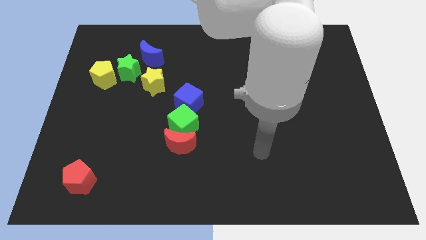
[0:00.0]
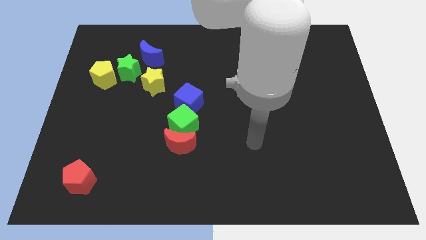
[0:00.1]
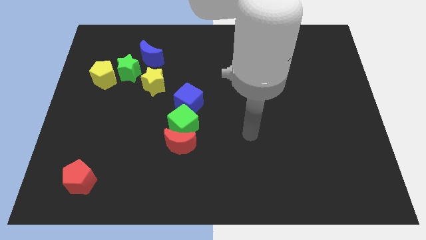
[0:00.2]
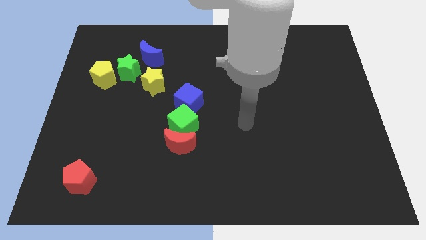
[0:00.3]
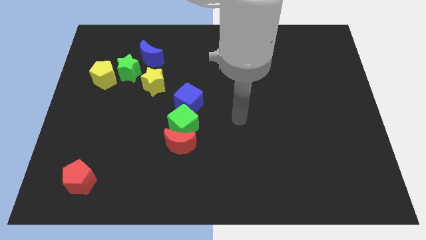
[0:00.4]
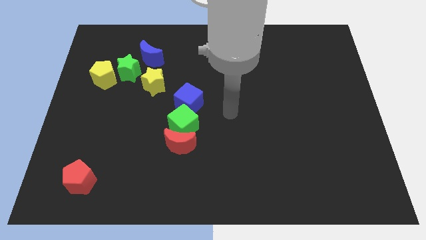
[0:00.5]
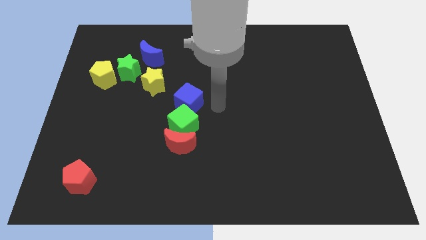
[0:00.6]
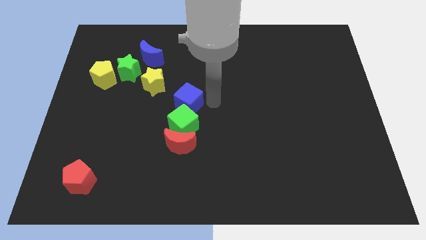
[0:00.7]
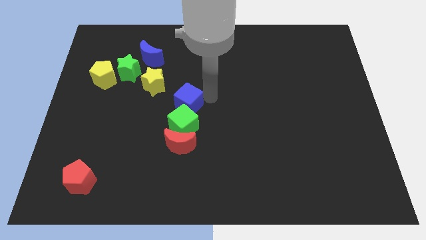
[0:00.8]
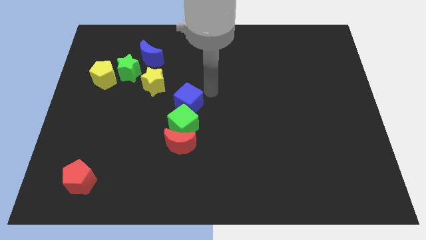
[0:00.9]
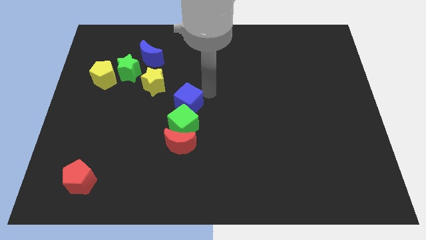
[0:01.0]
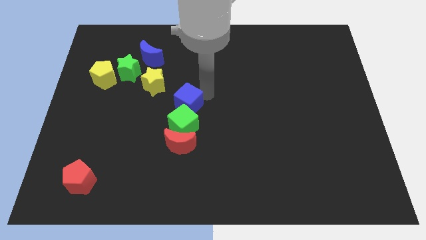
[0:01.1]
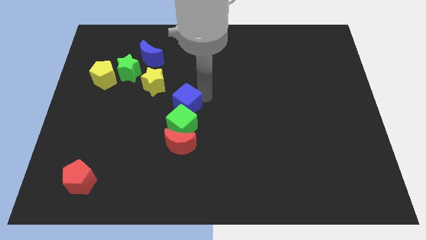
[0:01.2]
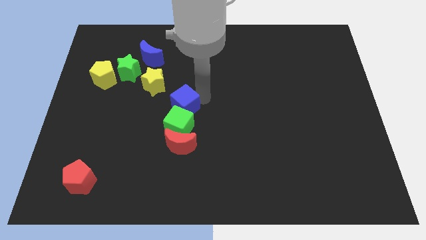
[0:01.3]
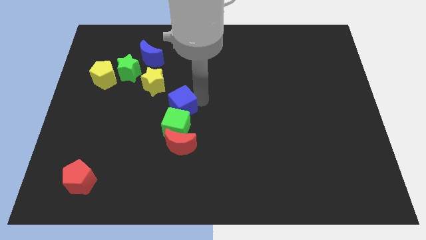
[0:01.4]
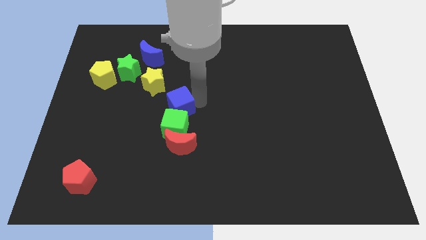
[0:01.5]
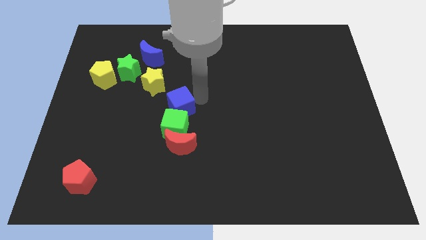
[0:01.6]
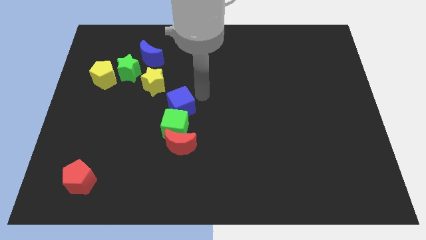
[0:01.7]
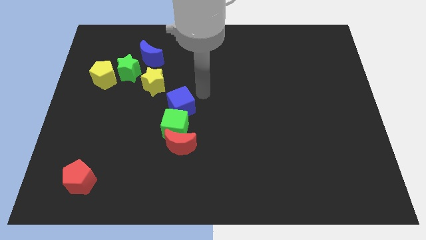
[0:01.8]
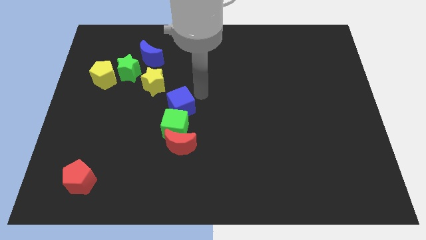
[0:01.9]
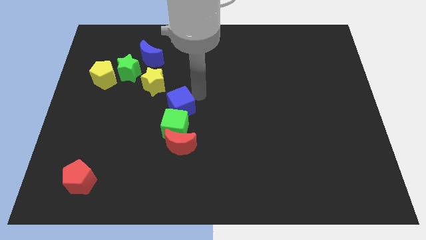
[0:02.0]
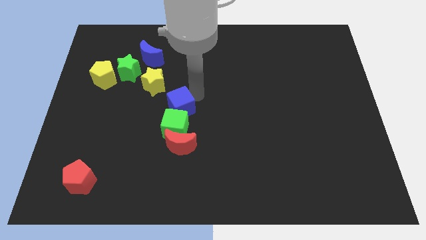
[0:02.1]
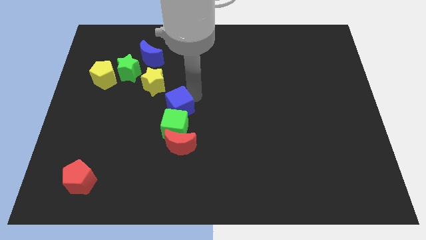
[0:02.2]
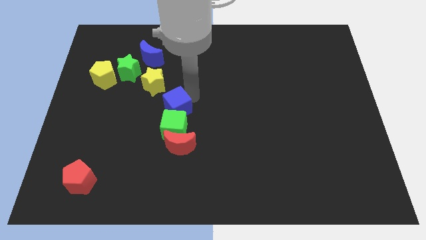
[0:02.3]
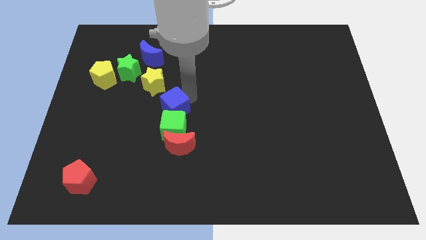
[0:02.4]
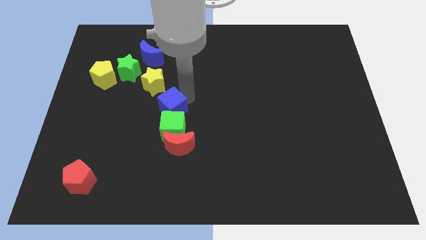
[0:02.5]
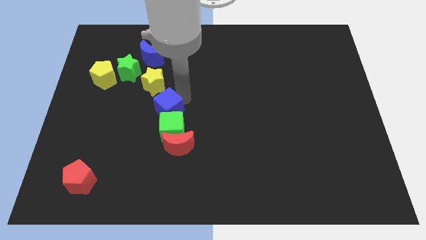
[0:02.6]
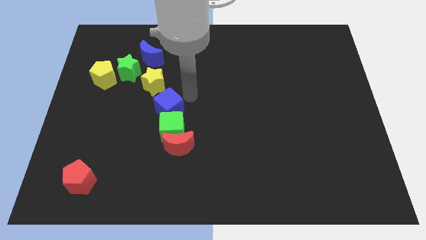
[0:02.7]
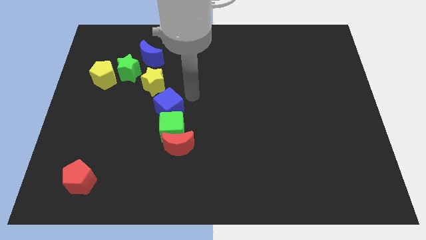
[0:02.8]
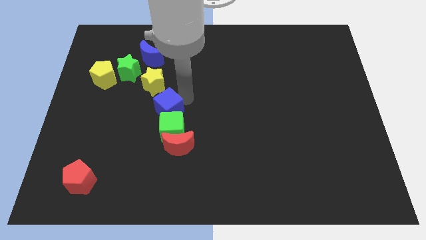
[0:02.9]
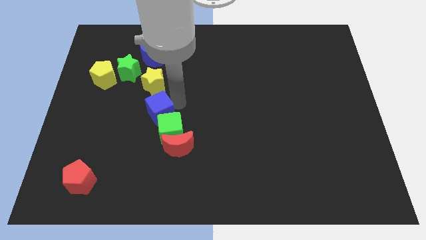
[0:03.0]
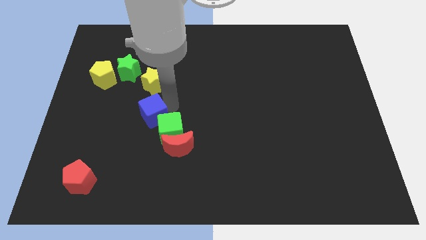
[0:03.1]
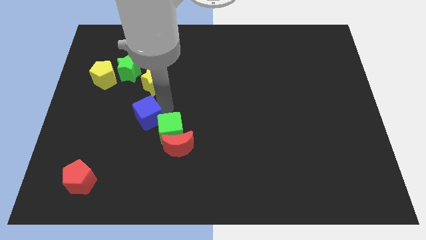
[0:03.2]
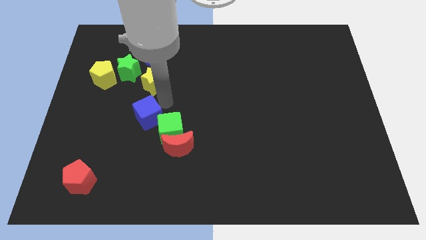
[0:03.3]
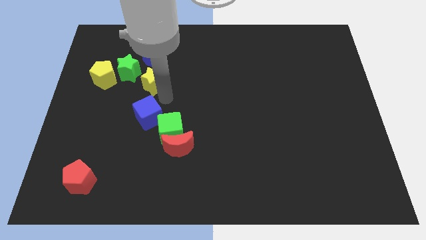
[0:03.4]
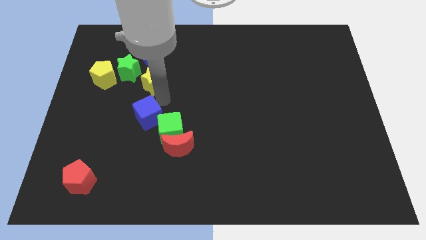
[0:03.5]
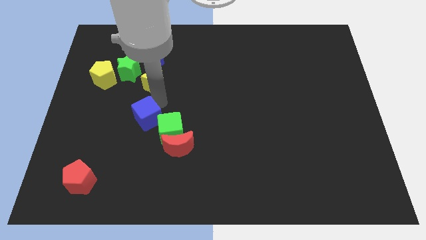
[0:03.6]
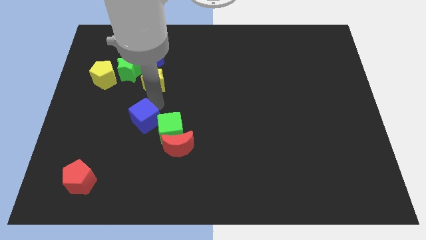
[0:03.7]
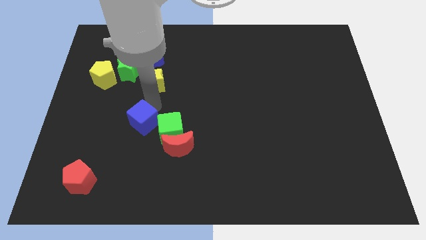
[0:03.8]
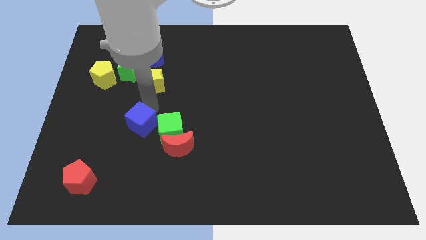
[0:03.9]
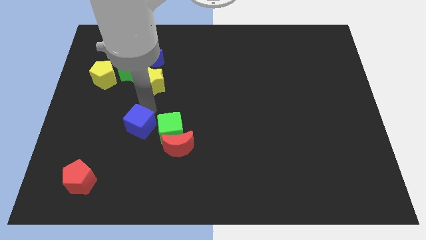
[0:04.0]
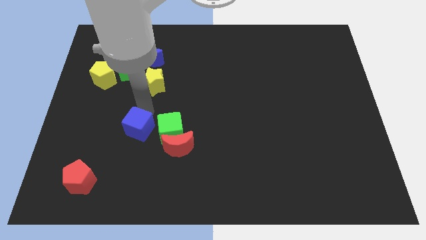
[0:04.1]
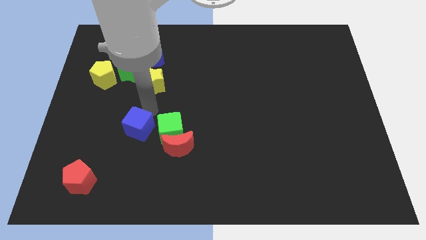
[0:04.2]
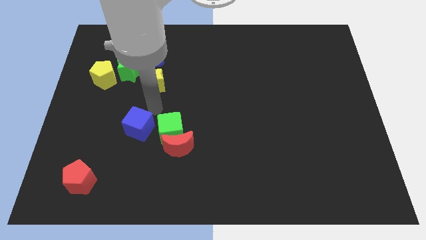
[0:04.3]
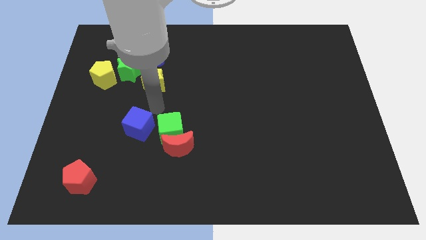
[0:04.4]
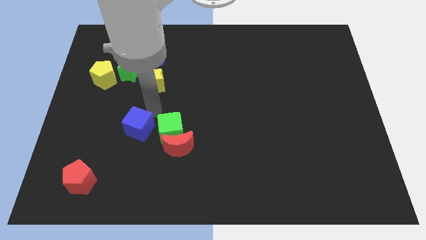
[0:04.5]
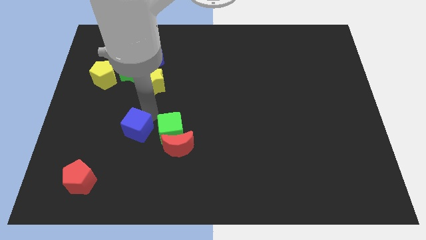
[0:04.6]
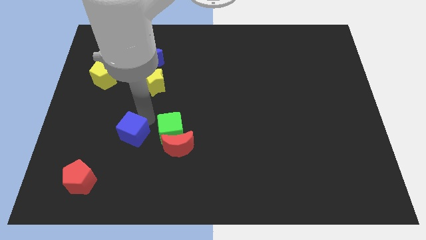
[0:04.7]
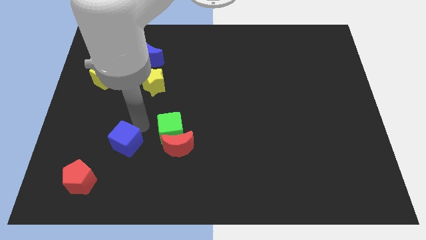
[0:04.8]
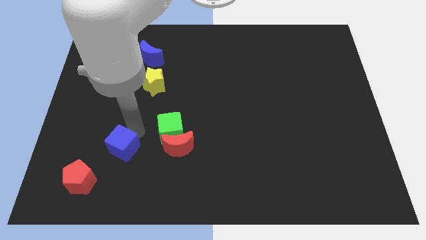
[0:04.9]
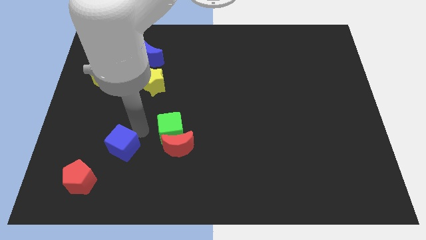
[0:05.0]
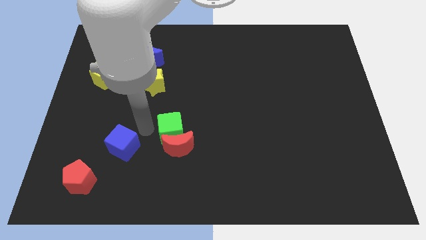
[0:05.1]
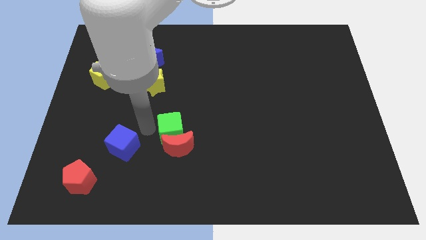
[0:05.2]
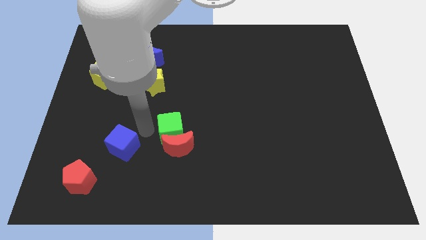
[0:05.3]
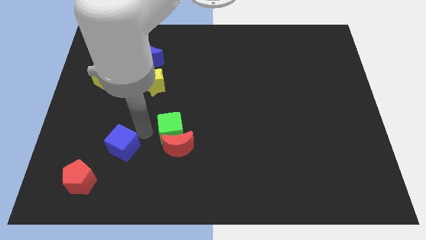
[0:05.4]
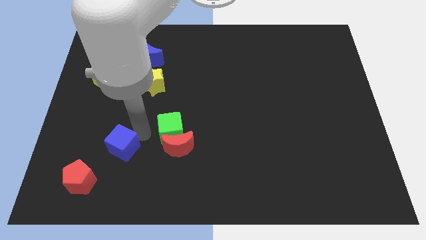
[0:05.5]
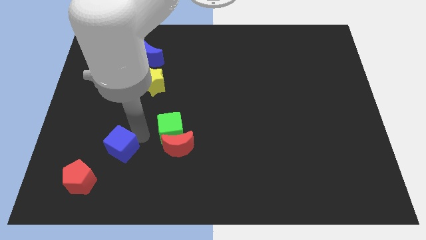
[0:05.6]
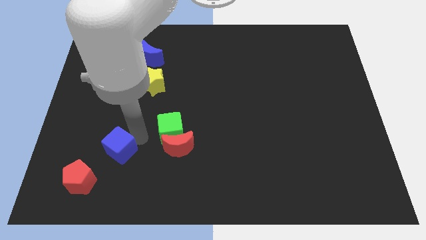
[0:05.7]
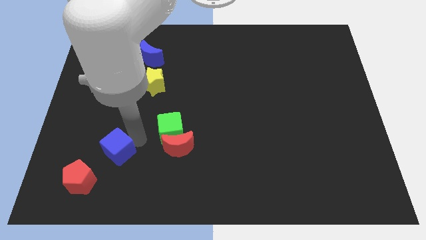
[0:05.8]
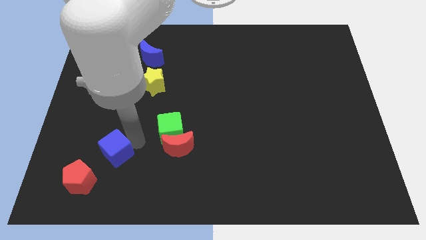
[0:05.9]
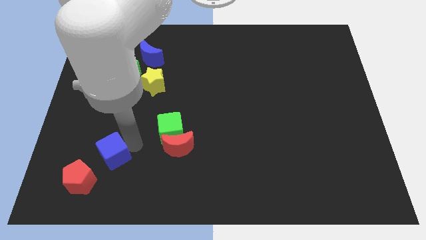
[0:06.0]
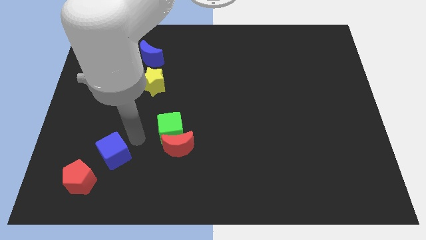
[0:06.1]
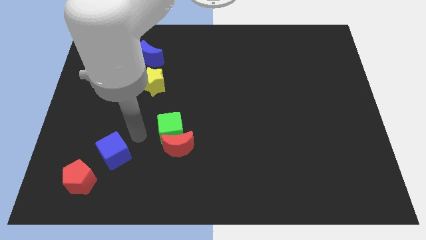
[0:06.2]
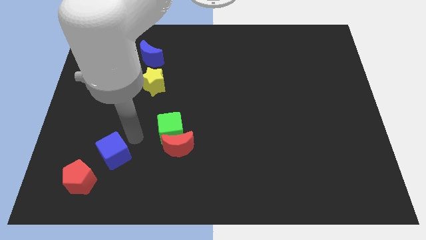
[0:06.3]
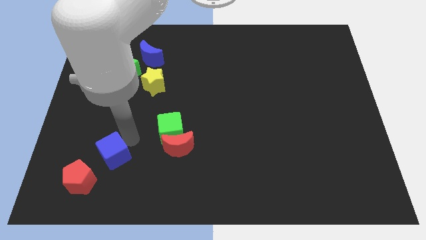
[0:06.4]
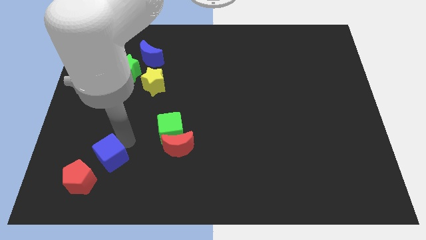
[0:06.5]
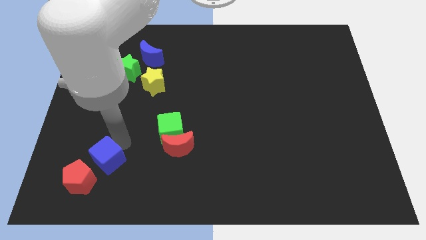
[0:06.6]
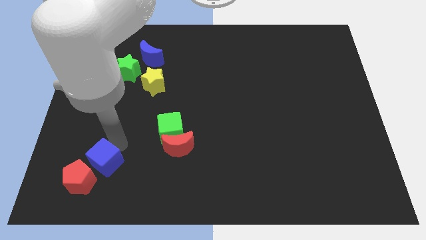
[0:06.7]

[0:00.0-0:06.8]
slide the blue cube close to the red pentagon
